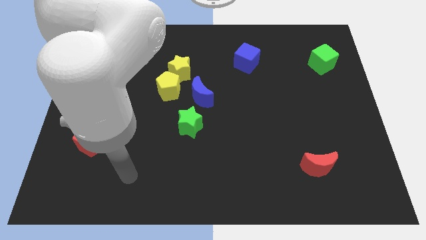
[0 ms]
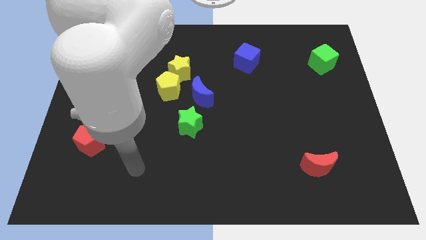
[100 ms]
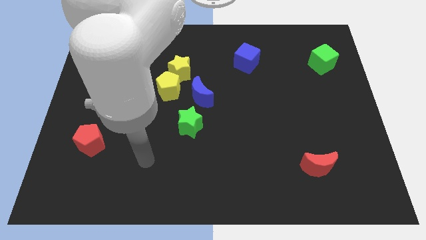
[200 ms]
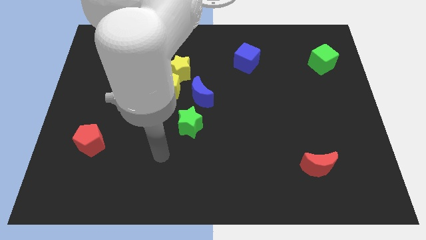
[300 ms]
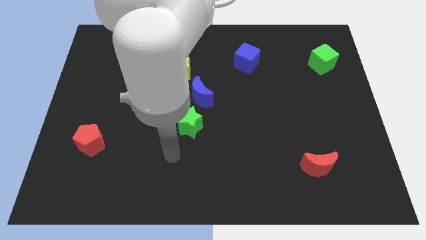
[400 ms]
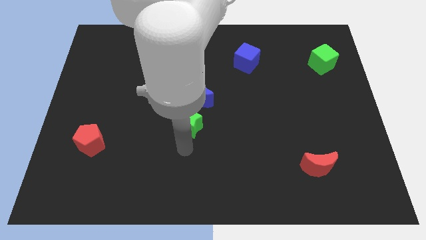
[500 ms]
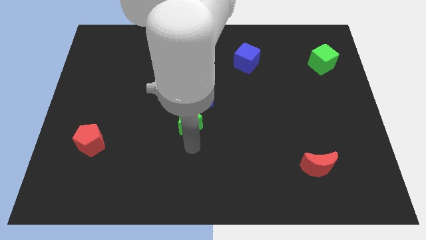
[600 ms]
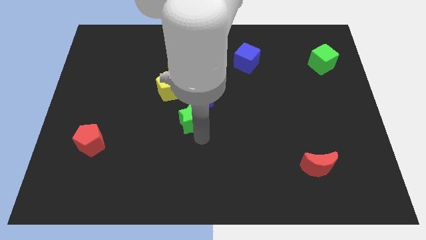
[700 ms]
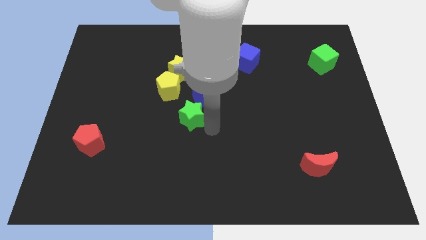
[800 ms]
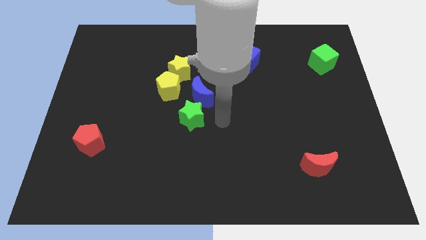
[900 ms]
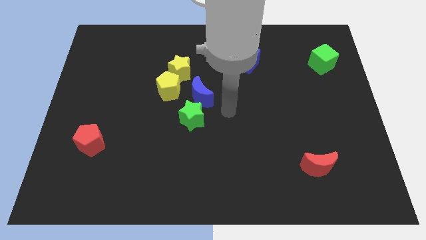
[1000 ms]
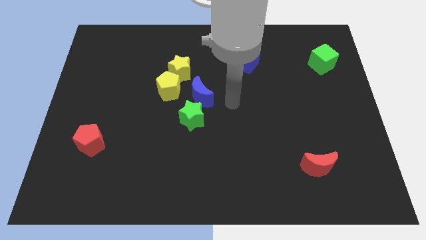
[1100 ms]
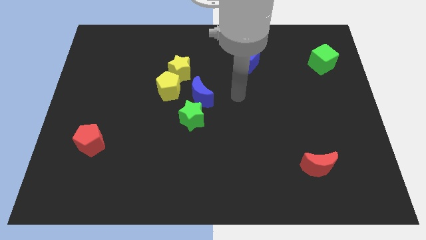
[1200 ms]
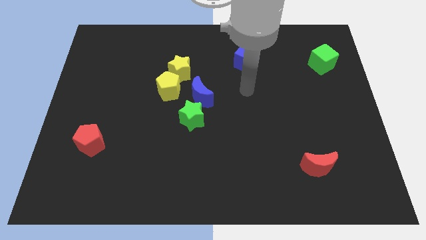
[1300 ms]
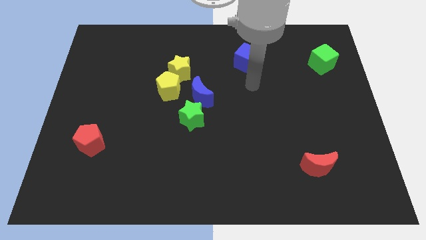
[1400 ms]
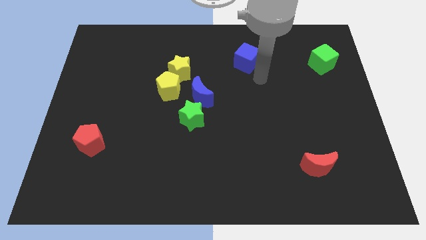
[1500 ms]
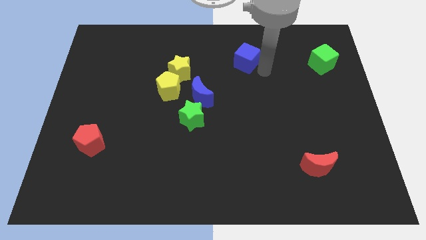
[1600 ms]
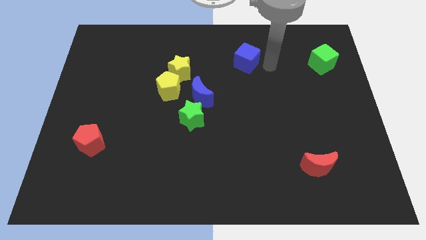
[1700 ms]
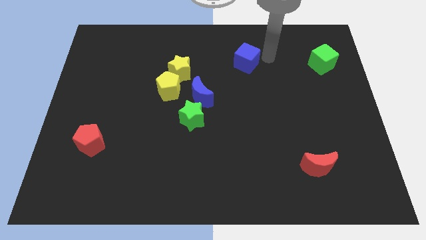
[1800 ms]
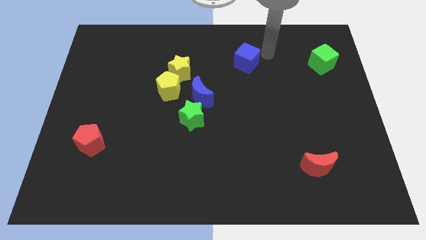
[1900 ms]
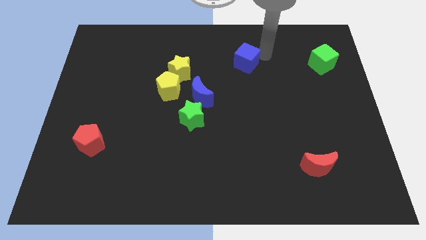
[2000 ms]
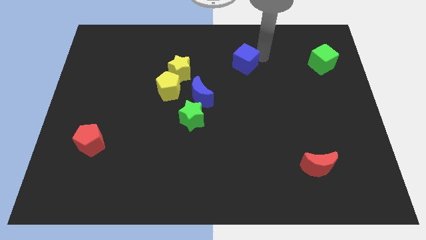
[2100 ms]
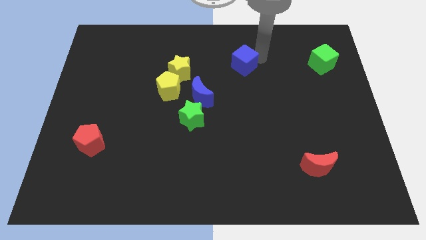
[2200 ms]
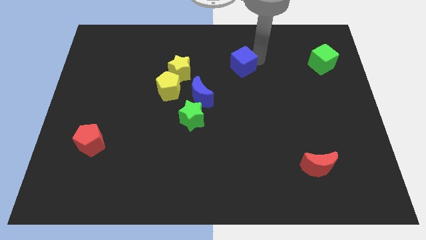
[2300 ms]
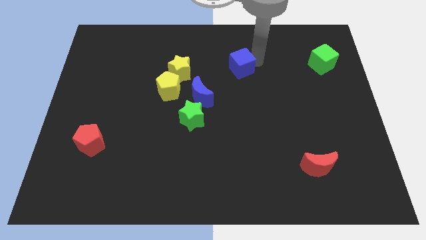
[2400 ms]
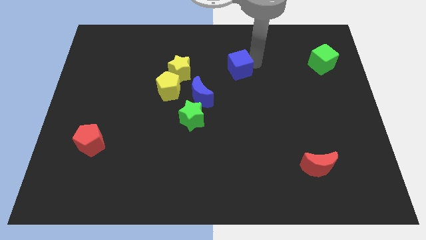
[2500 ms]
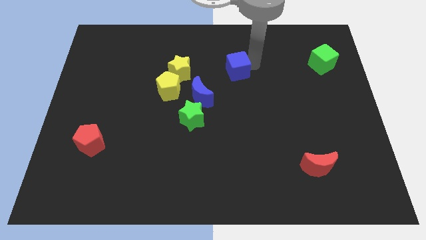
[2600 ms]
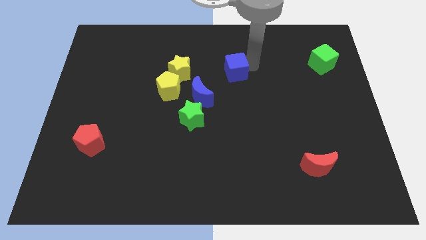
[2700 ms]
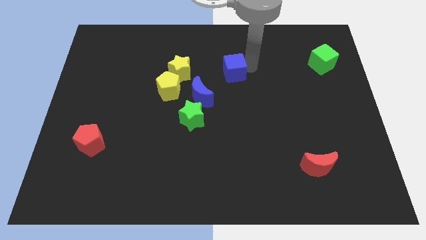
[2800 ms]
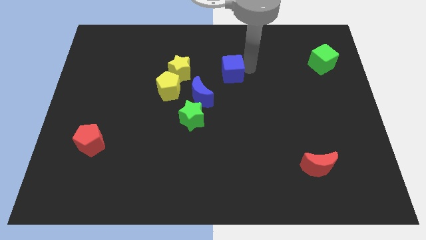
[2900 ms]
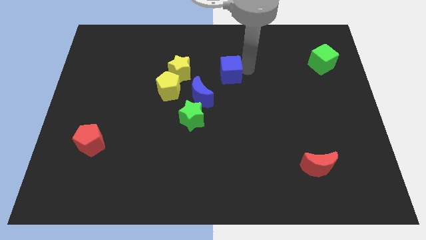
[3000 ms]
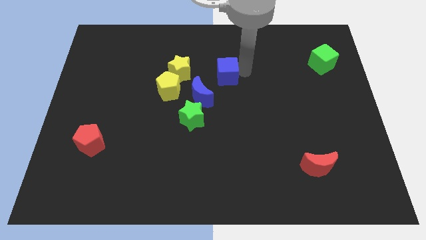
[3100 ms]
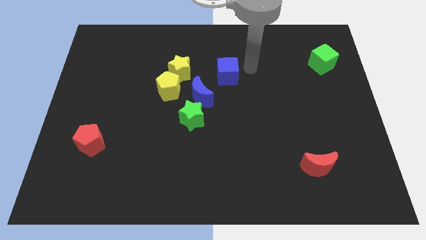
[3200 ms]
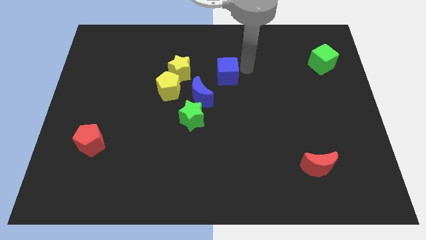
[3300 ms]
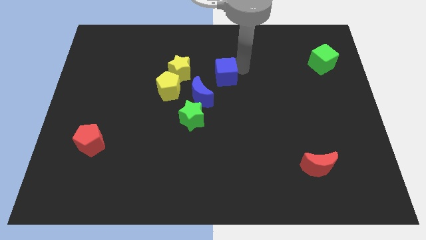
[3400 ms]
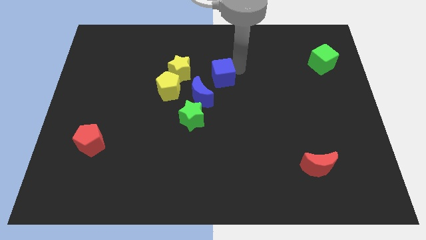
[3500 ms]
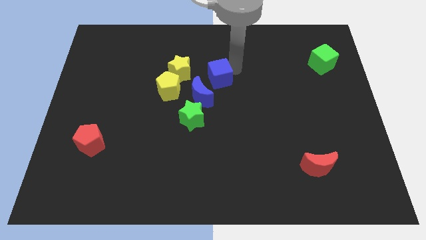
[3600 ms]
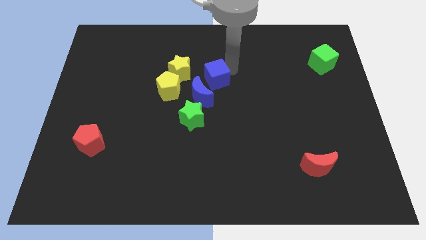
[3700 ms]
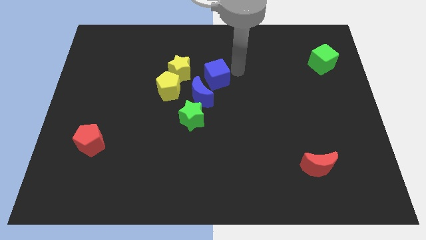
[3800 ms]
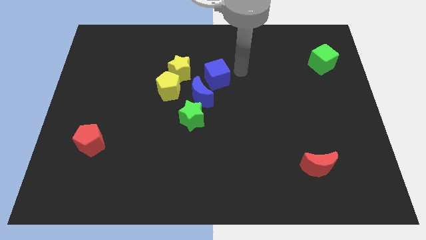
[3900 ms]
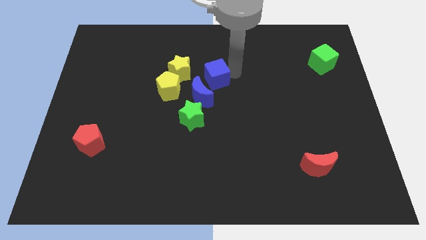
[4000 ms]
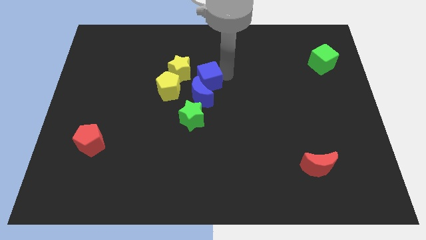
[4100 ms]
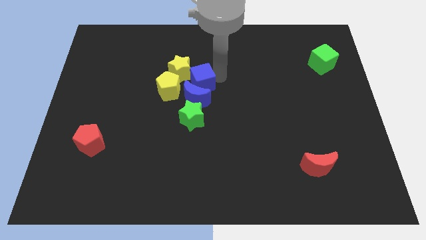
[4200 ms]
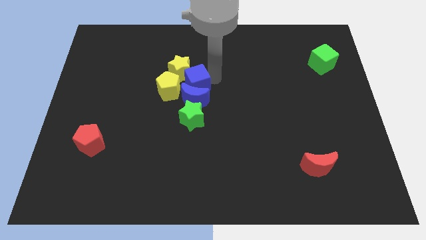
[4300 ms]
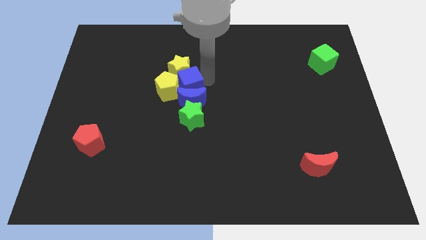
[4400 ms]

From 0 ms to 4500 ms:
push the blue cube towards the yellow pentagon

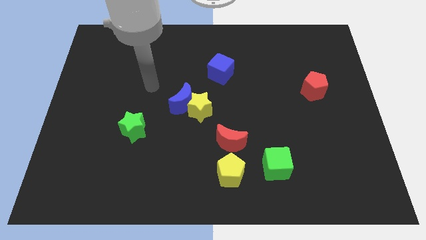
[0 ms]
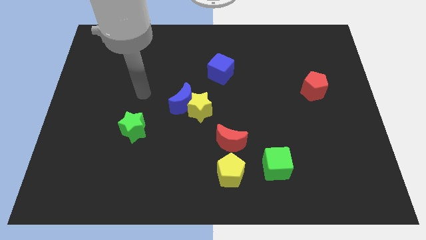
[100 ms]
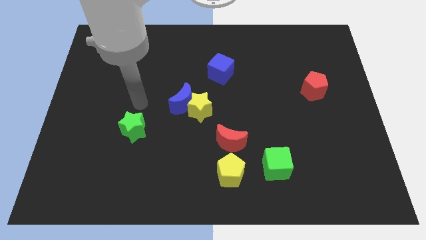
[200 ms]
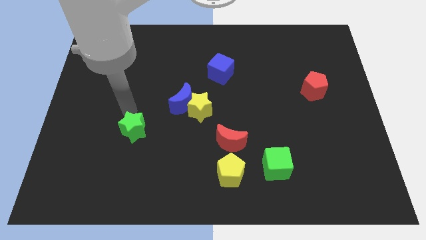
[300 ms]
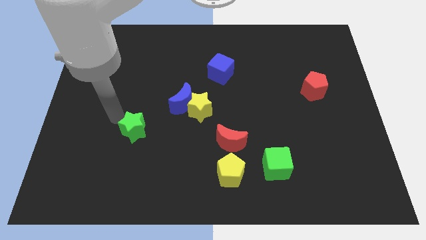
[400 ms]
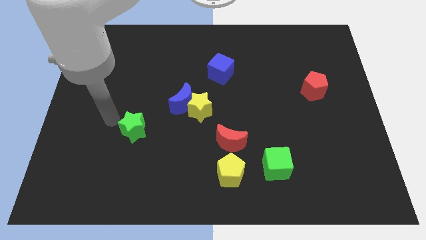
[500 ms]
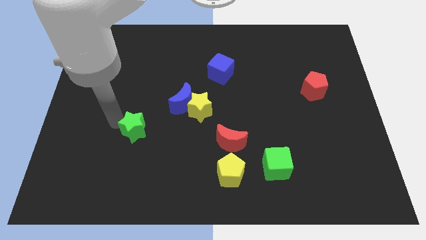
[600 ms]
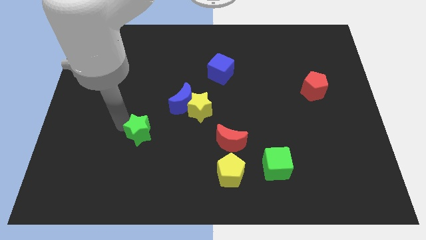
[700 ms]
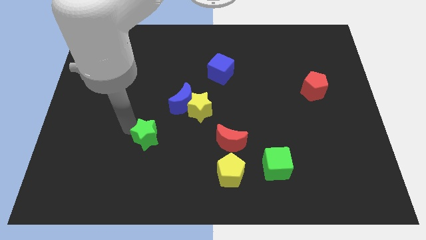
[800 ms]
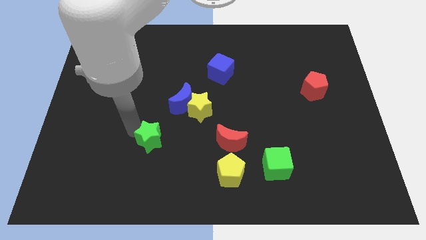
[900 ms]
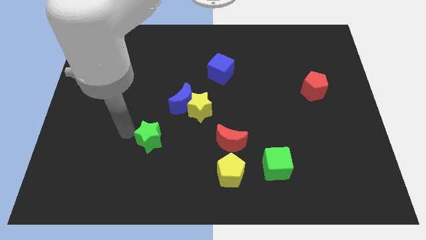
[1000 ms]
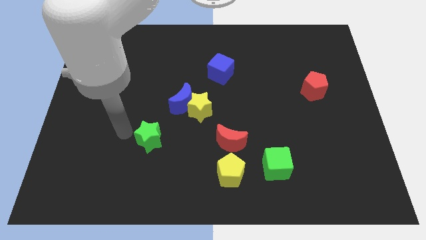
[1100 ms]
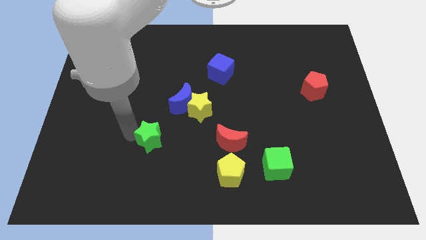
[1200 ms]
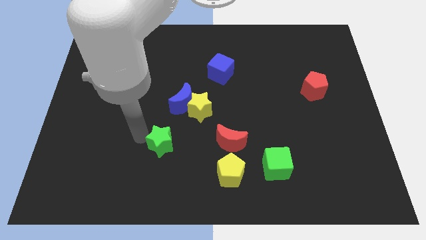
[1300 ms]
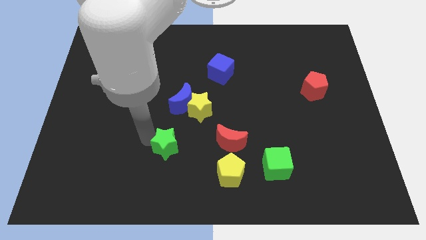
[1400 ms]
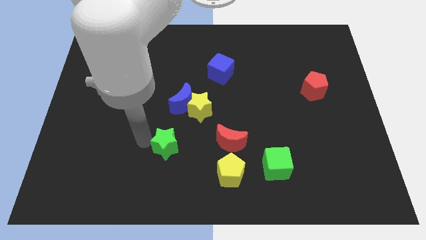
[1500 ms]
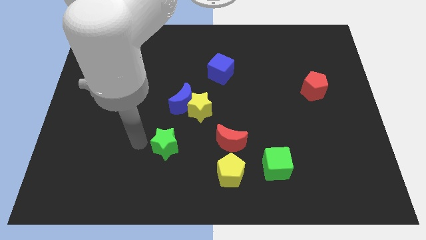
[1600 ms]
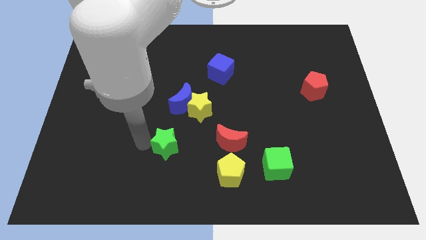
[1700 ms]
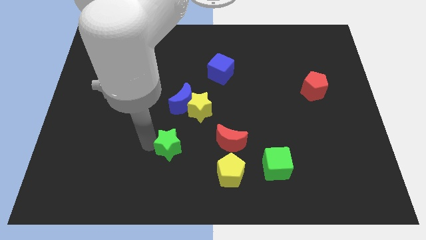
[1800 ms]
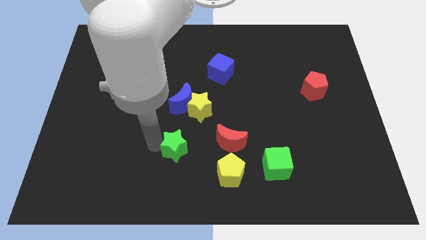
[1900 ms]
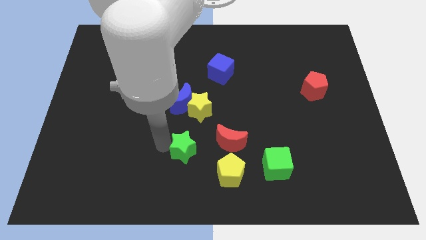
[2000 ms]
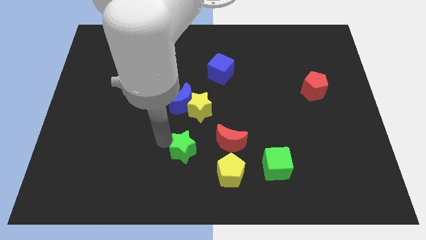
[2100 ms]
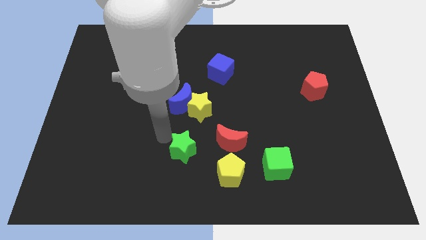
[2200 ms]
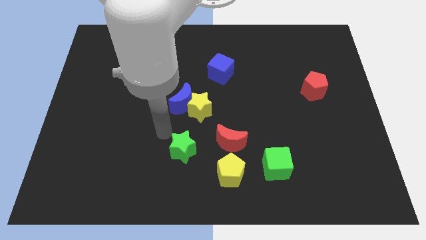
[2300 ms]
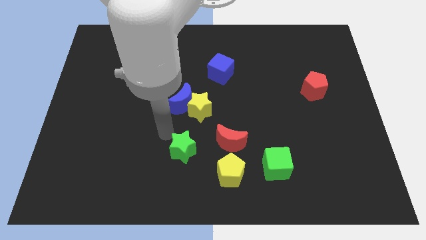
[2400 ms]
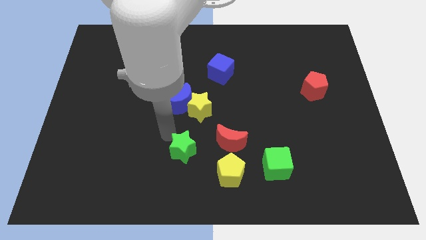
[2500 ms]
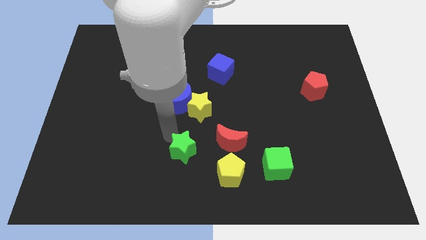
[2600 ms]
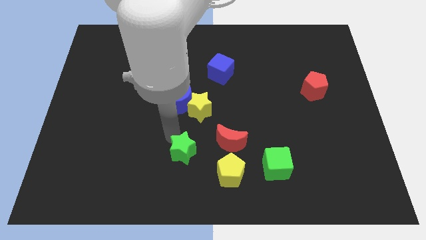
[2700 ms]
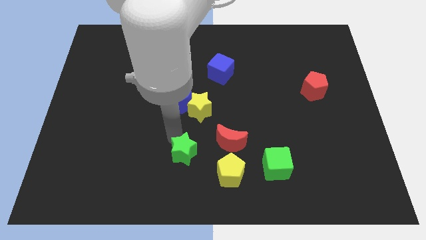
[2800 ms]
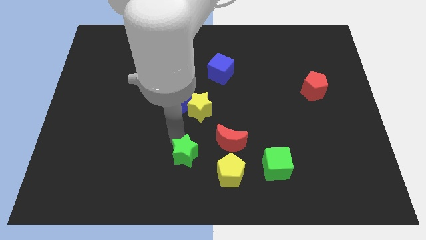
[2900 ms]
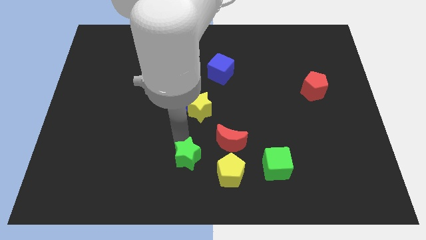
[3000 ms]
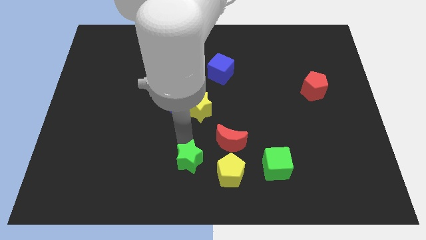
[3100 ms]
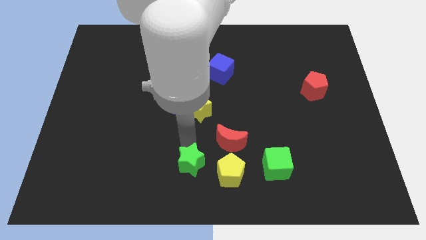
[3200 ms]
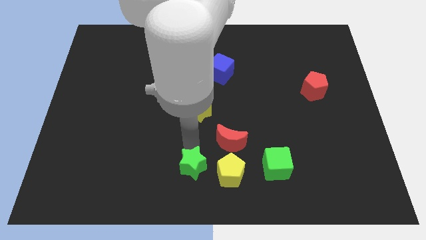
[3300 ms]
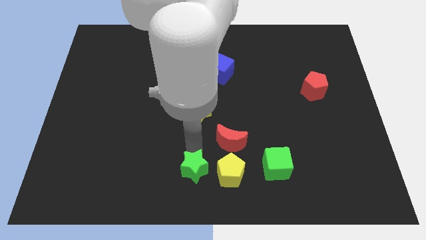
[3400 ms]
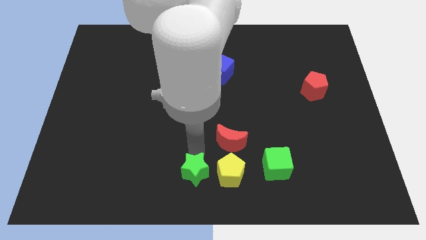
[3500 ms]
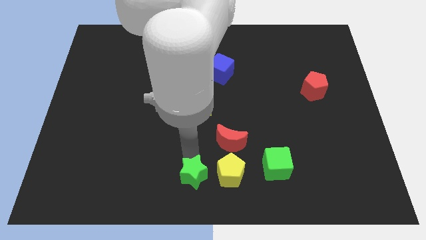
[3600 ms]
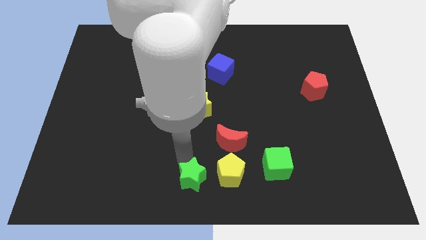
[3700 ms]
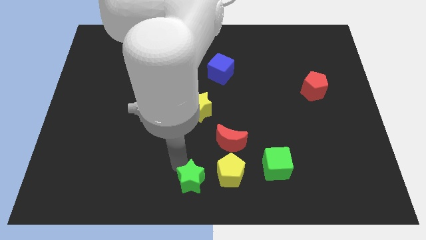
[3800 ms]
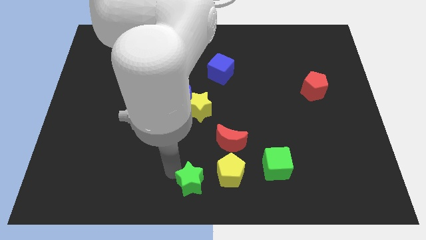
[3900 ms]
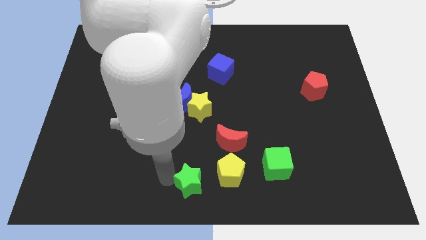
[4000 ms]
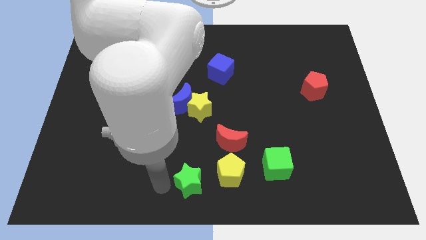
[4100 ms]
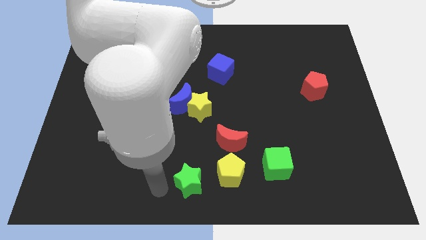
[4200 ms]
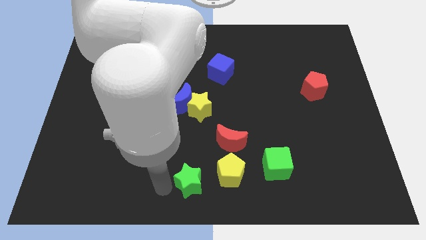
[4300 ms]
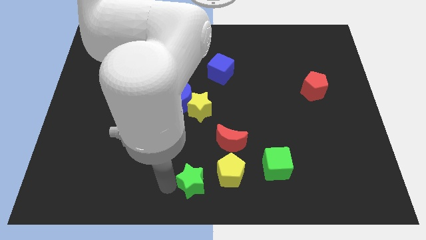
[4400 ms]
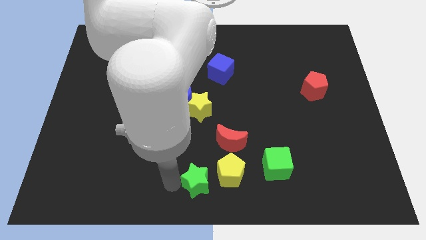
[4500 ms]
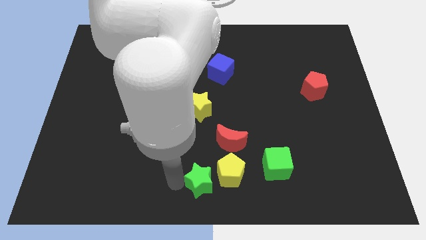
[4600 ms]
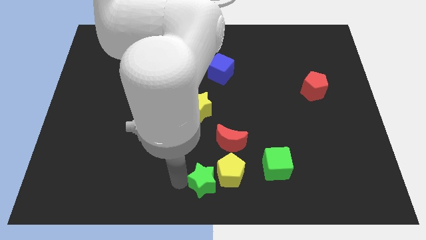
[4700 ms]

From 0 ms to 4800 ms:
slide the green star towards the yellow pentagon
